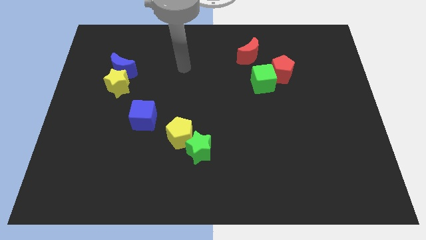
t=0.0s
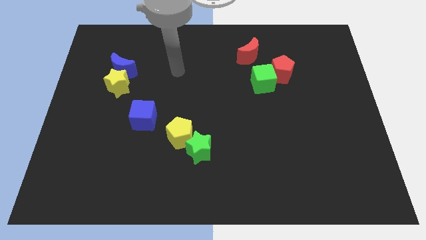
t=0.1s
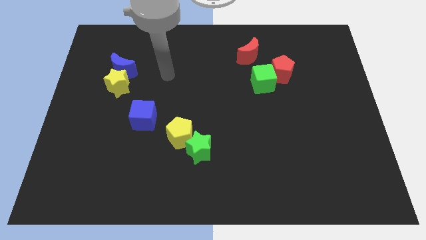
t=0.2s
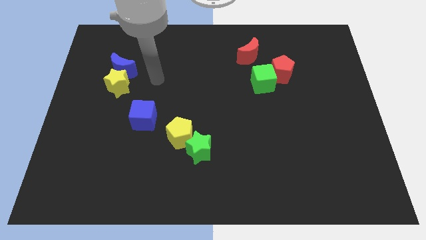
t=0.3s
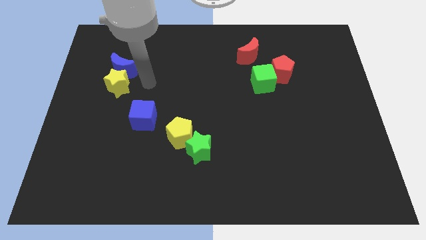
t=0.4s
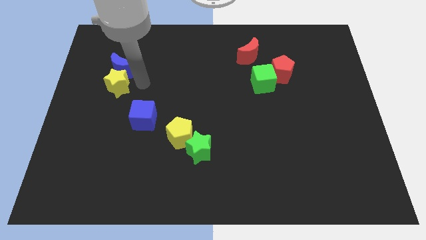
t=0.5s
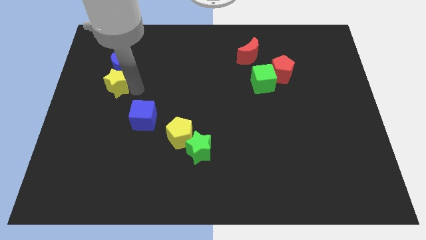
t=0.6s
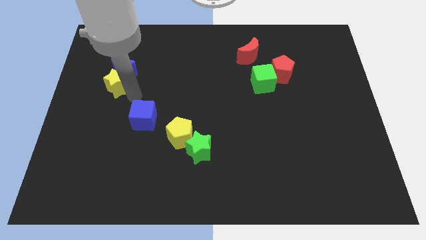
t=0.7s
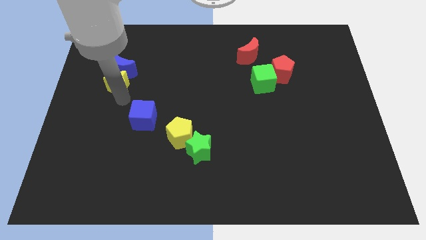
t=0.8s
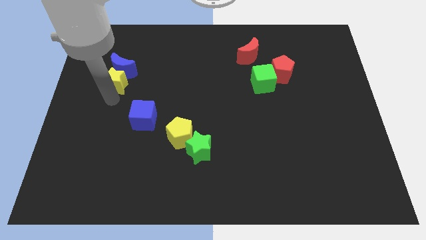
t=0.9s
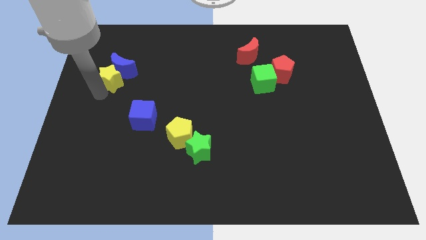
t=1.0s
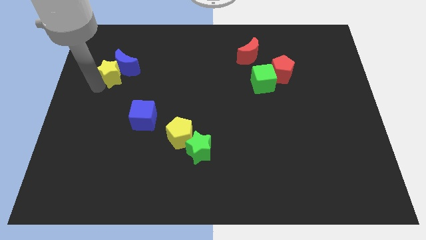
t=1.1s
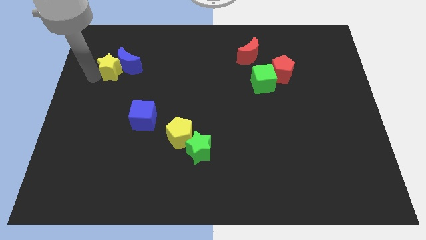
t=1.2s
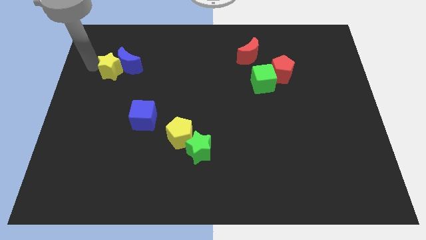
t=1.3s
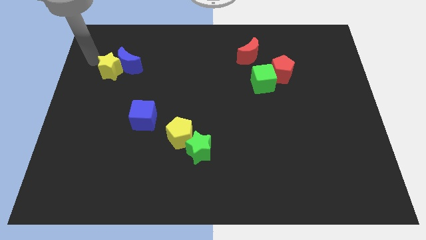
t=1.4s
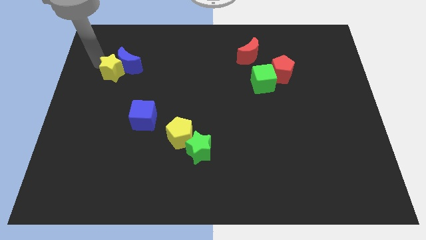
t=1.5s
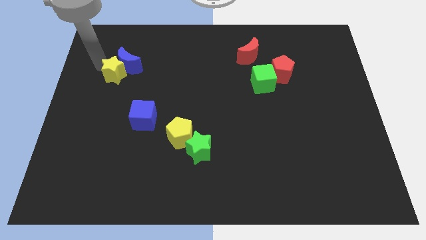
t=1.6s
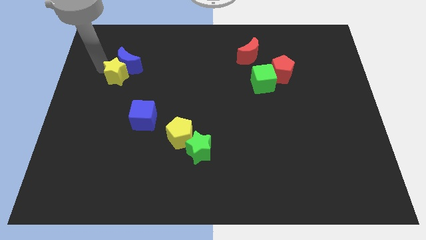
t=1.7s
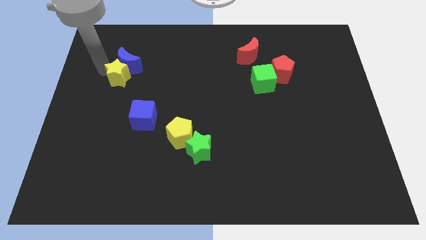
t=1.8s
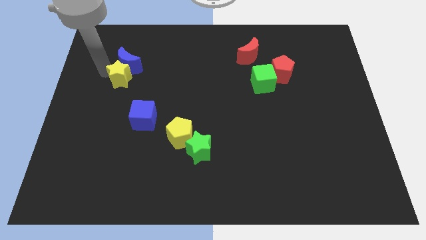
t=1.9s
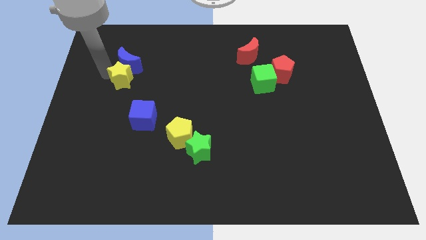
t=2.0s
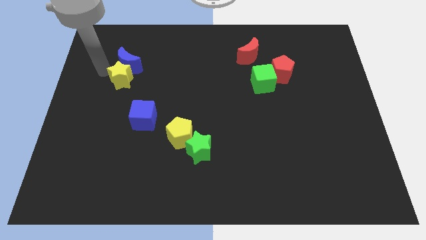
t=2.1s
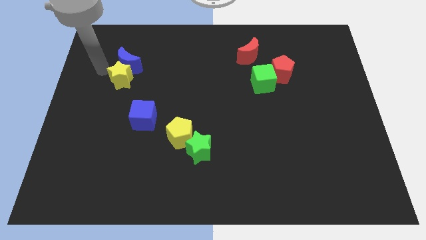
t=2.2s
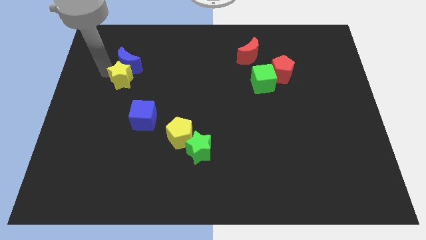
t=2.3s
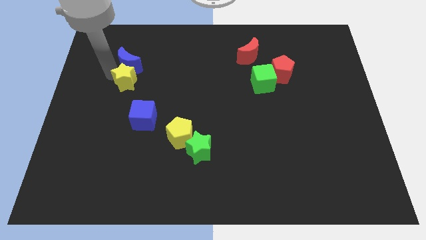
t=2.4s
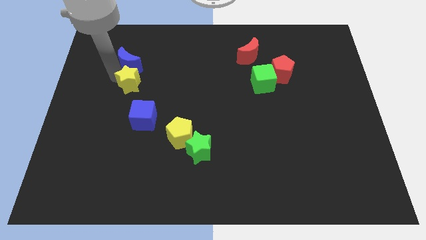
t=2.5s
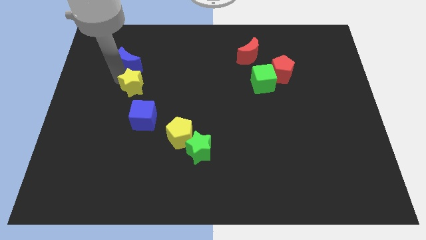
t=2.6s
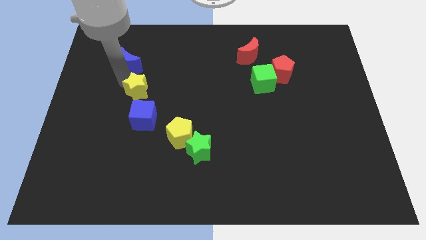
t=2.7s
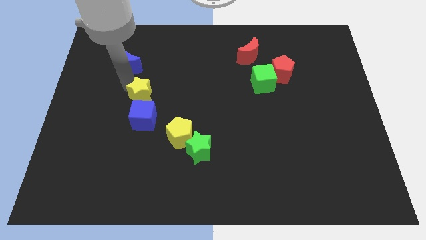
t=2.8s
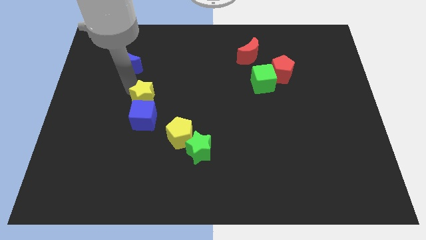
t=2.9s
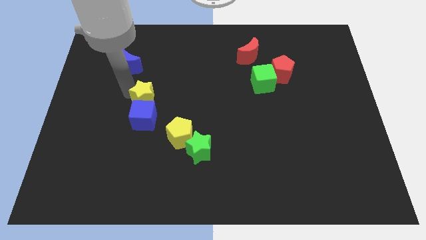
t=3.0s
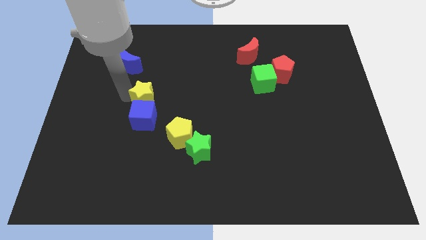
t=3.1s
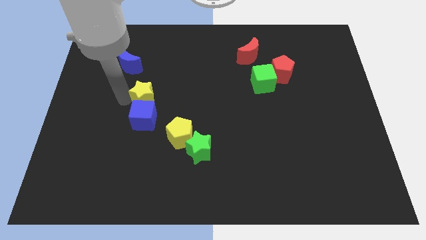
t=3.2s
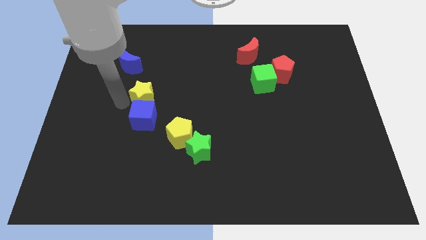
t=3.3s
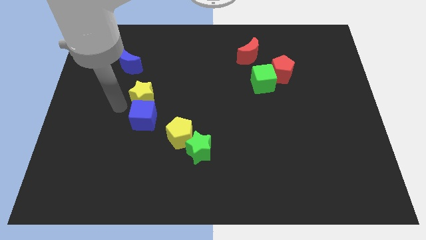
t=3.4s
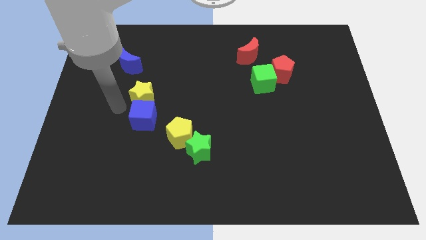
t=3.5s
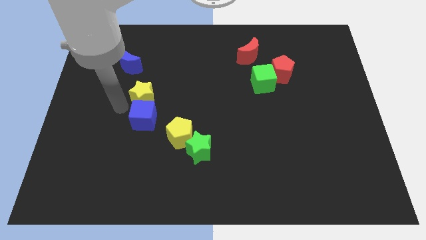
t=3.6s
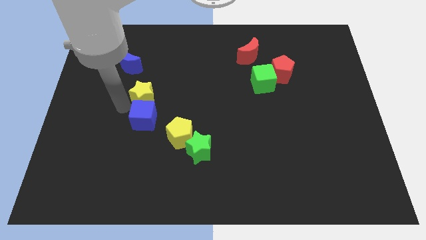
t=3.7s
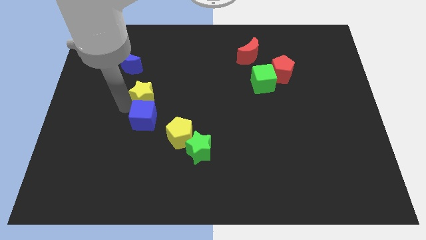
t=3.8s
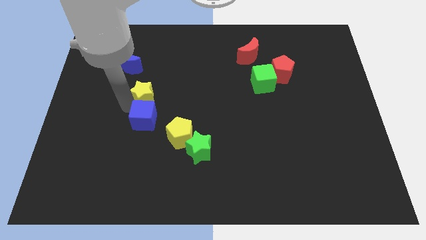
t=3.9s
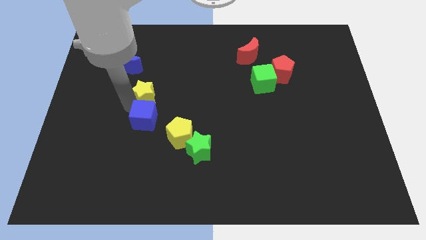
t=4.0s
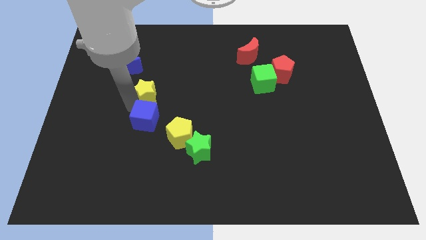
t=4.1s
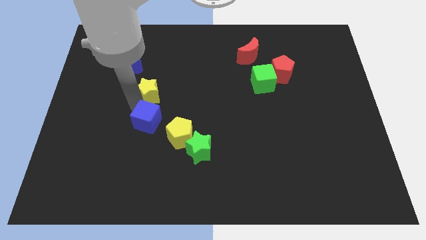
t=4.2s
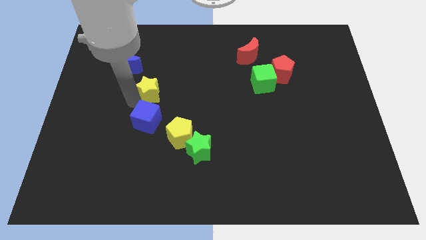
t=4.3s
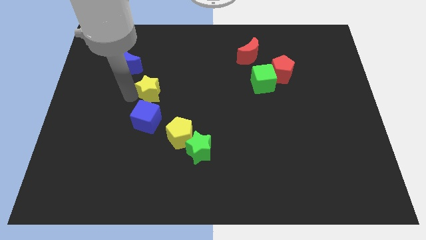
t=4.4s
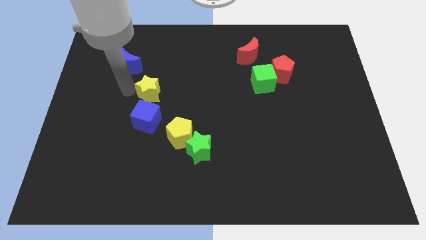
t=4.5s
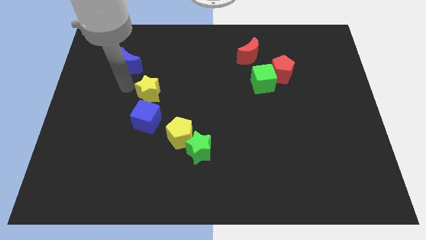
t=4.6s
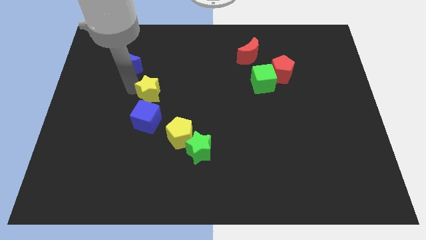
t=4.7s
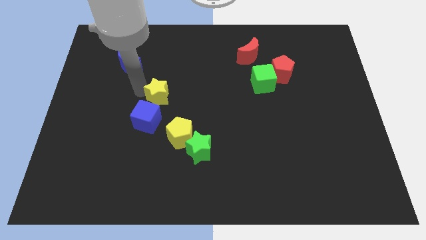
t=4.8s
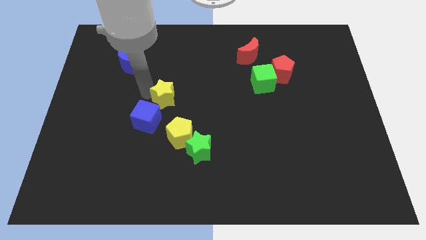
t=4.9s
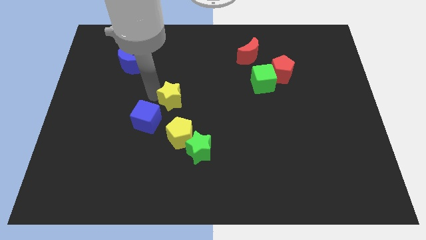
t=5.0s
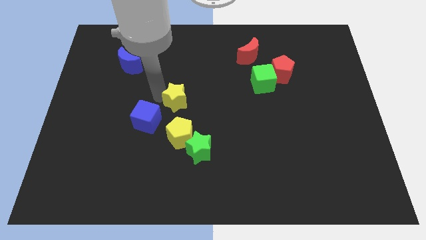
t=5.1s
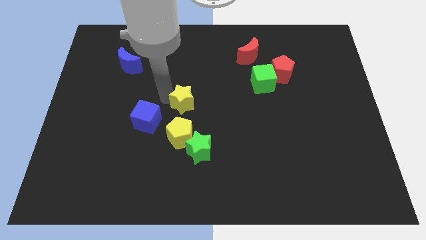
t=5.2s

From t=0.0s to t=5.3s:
move the yellow star to the top side of the green star

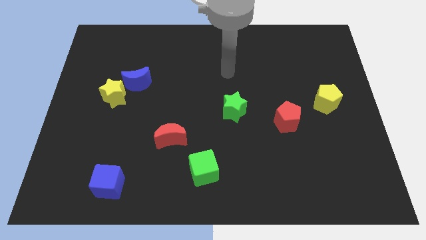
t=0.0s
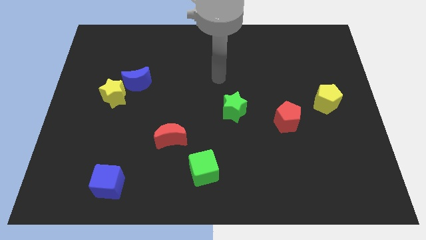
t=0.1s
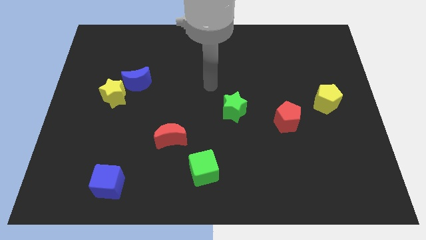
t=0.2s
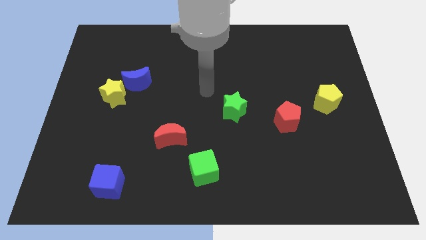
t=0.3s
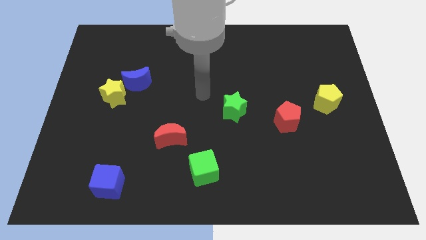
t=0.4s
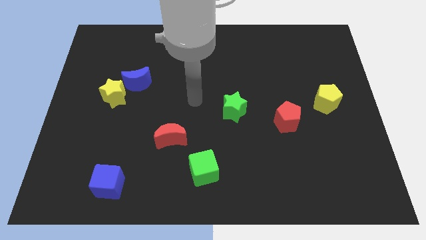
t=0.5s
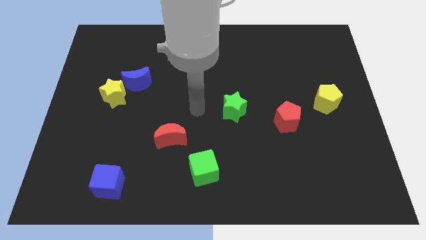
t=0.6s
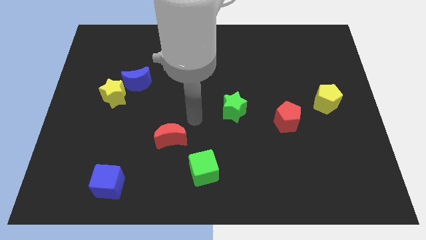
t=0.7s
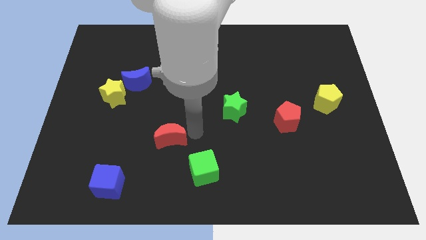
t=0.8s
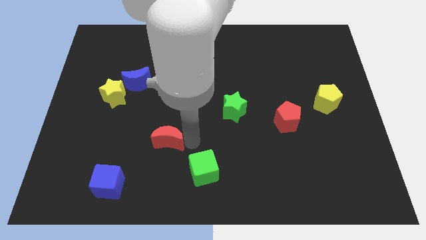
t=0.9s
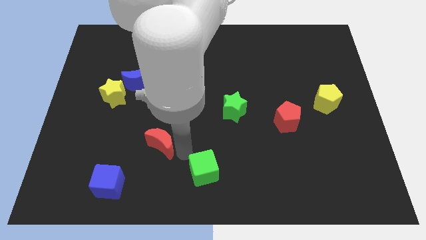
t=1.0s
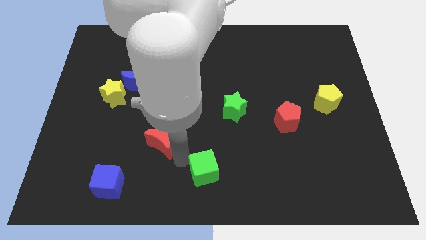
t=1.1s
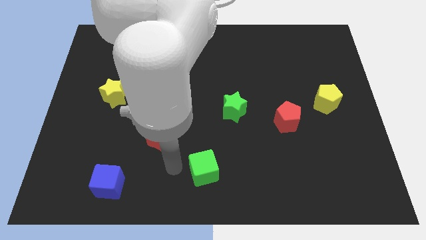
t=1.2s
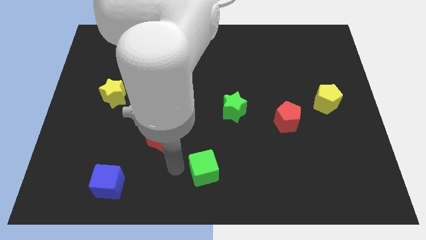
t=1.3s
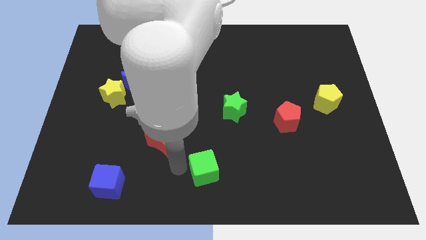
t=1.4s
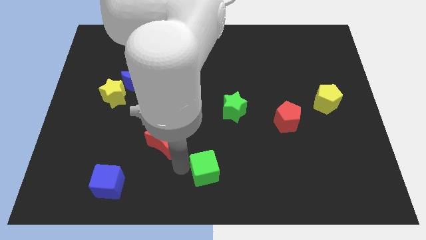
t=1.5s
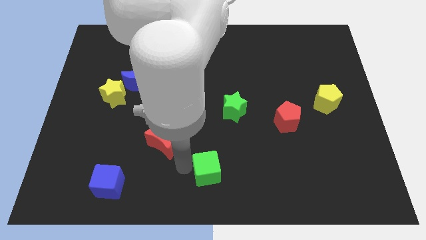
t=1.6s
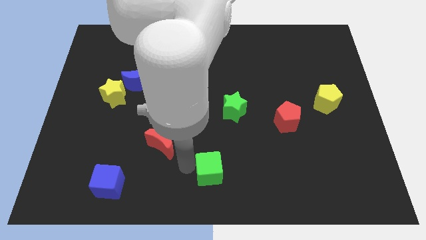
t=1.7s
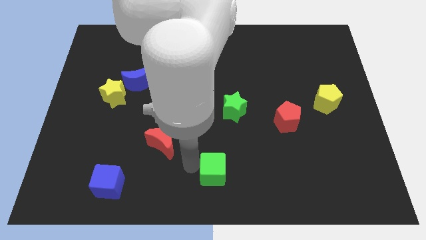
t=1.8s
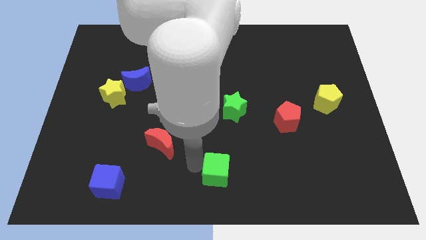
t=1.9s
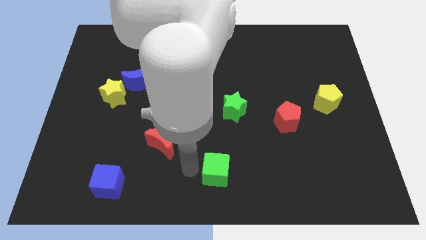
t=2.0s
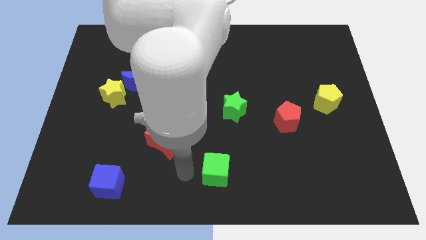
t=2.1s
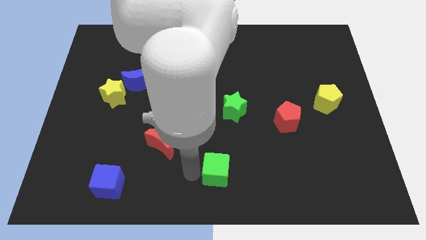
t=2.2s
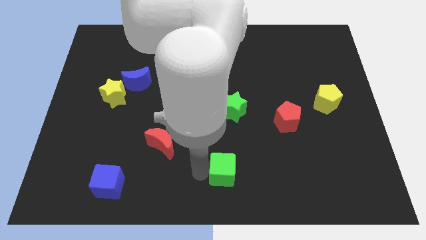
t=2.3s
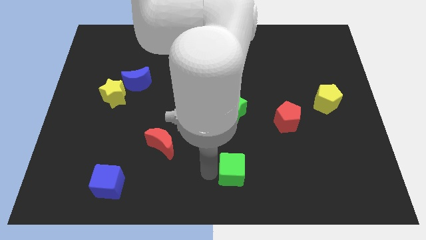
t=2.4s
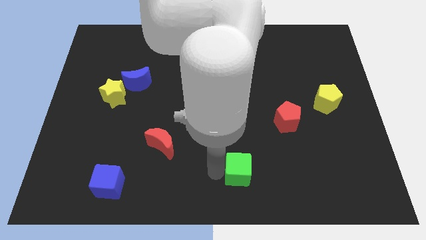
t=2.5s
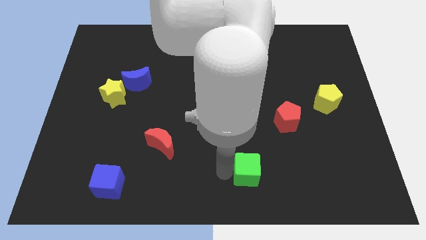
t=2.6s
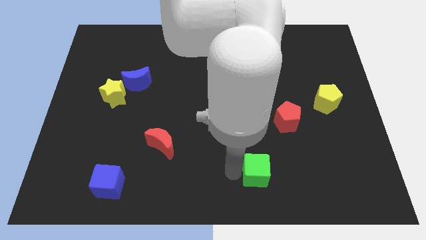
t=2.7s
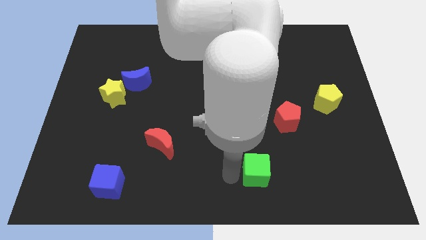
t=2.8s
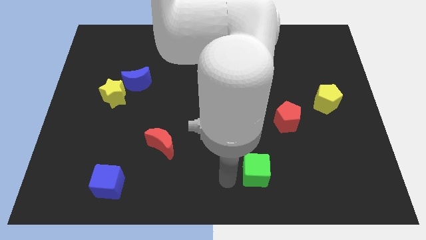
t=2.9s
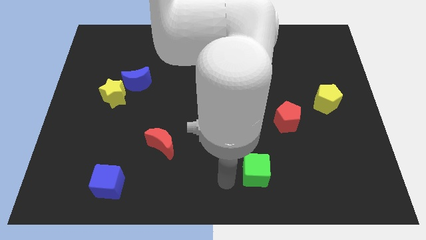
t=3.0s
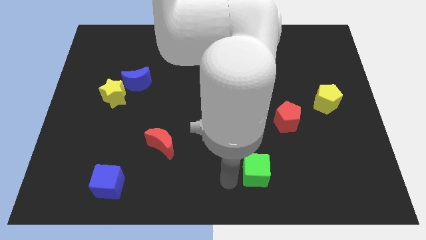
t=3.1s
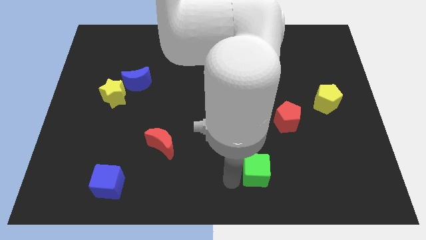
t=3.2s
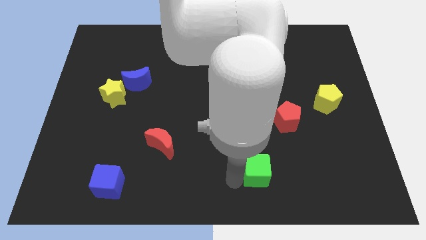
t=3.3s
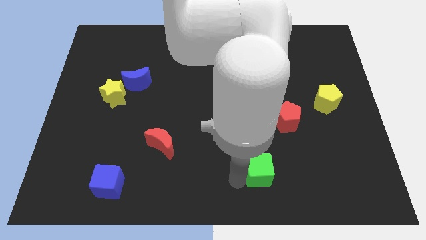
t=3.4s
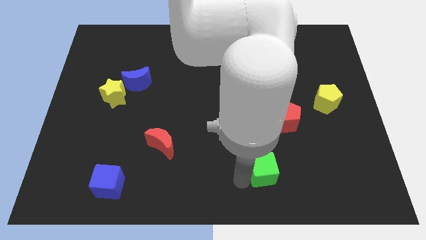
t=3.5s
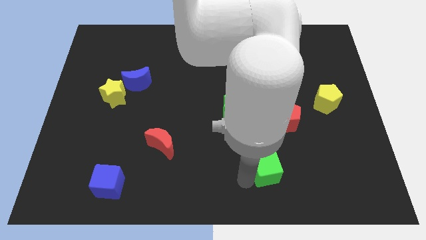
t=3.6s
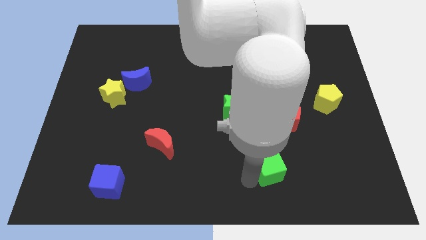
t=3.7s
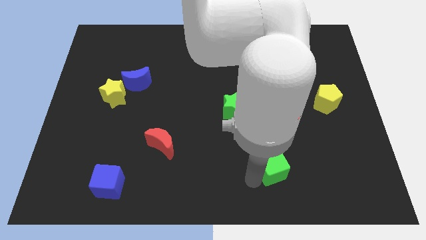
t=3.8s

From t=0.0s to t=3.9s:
push the green cube to the bottom of the red pentagon
